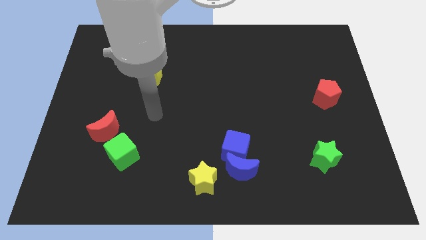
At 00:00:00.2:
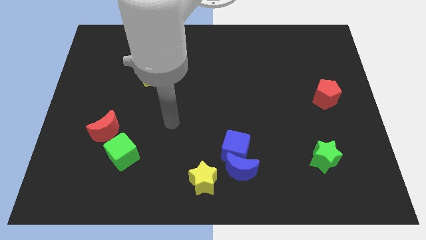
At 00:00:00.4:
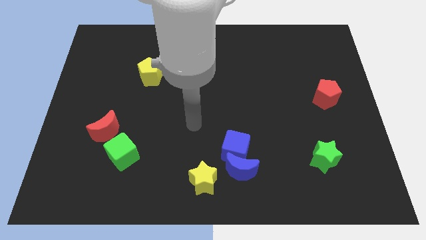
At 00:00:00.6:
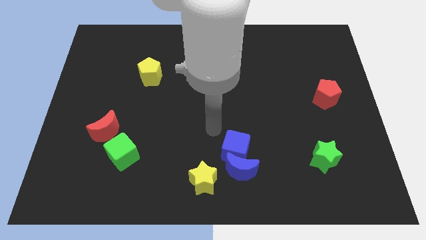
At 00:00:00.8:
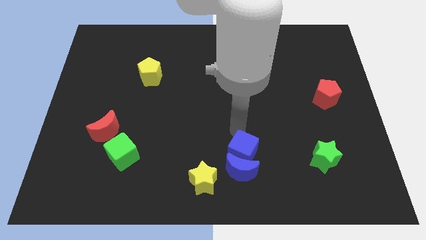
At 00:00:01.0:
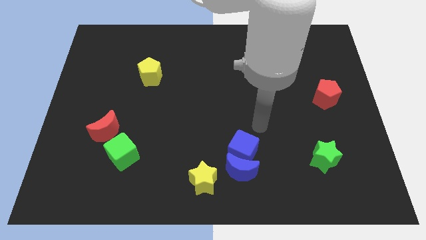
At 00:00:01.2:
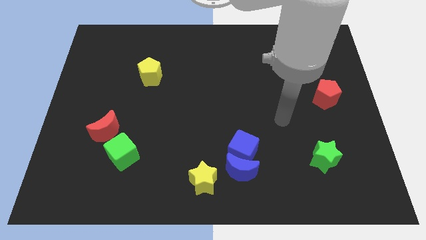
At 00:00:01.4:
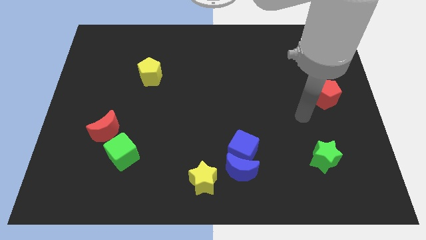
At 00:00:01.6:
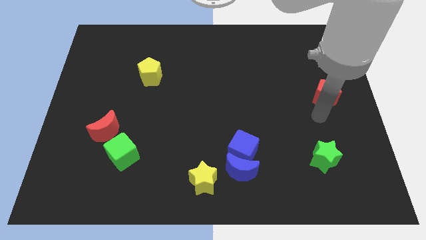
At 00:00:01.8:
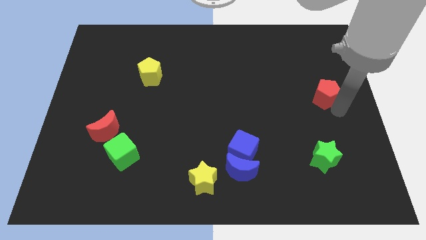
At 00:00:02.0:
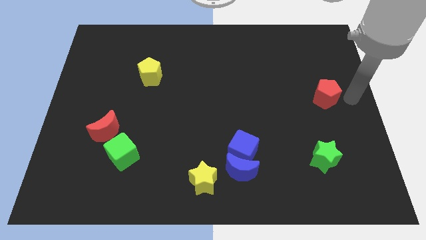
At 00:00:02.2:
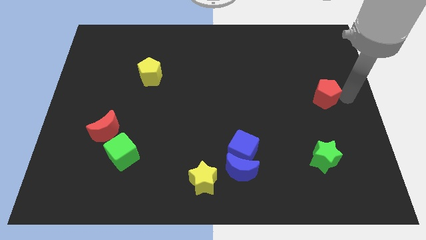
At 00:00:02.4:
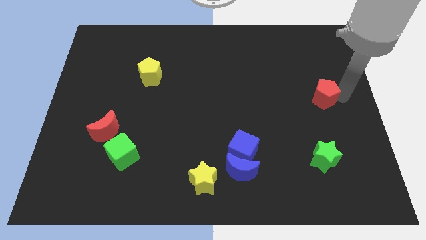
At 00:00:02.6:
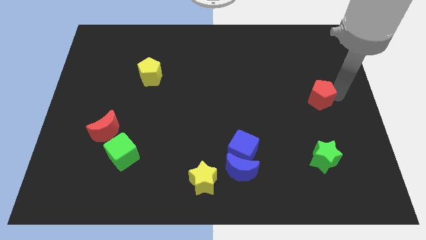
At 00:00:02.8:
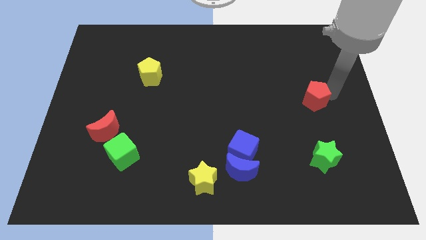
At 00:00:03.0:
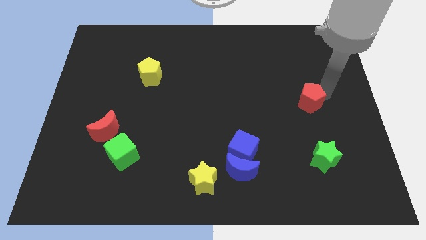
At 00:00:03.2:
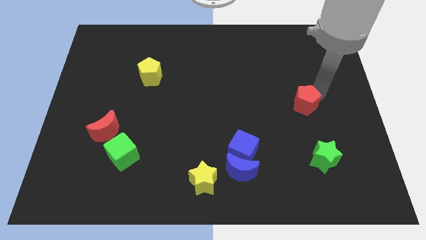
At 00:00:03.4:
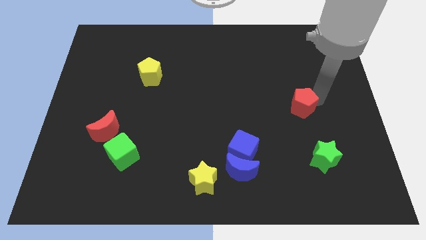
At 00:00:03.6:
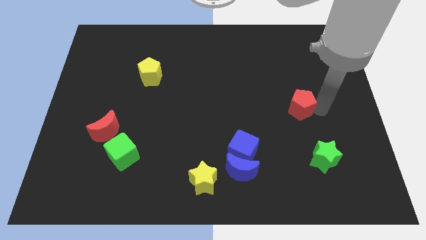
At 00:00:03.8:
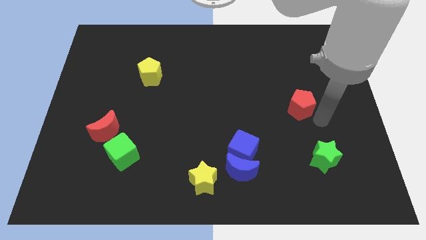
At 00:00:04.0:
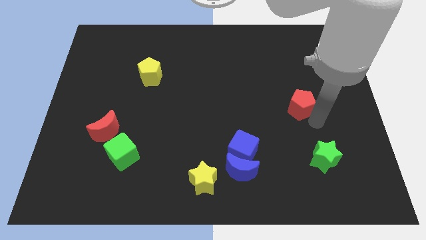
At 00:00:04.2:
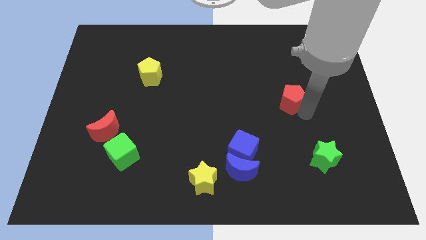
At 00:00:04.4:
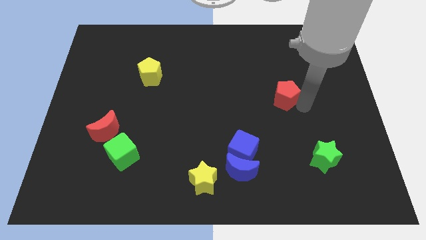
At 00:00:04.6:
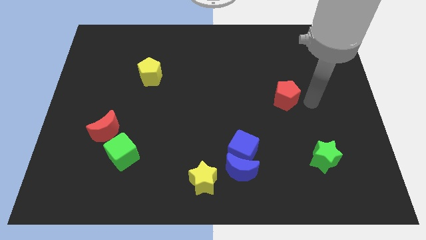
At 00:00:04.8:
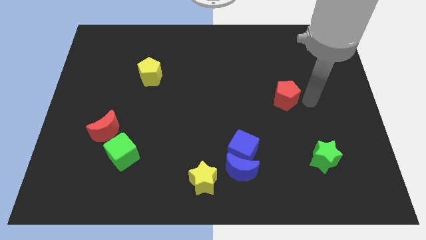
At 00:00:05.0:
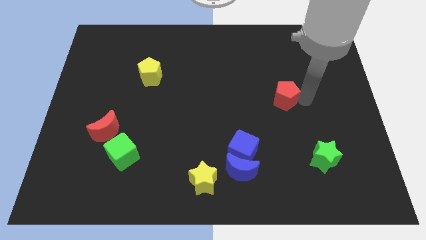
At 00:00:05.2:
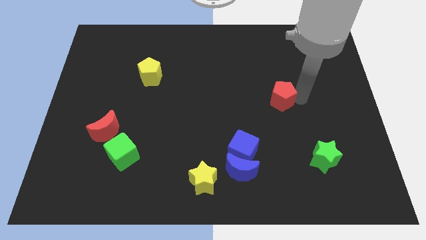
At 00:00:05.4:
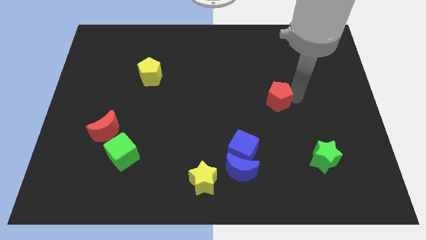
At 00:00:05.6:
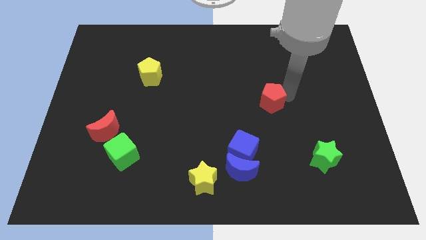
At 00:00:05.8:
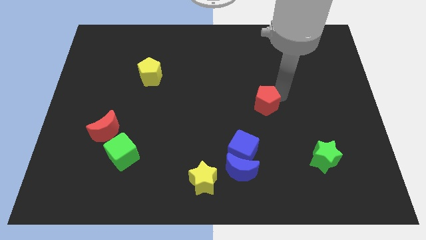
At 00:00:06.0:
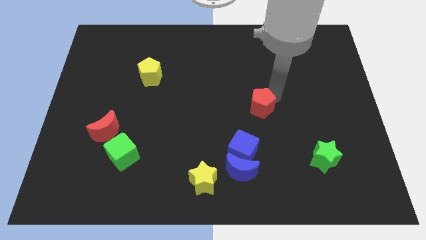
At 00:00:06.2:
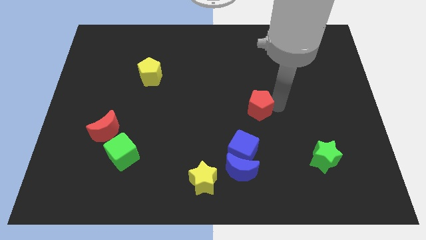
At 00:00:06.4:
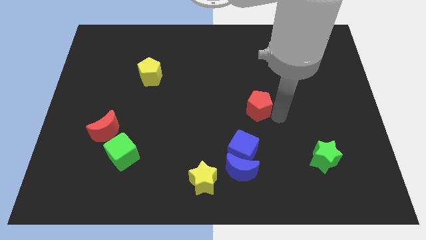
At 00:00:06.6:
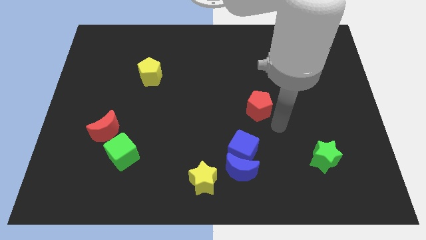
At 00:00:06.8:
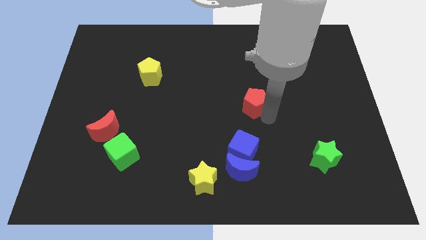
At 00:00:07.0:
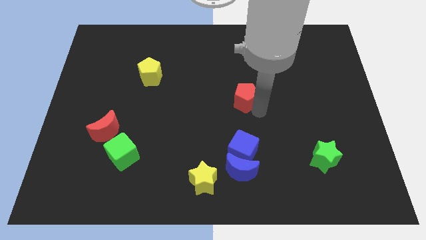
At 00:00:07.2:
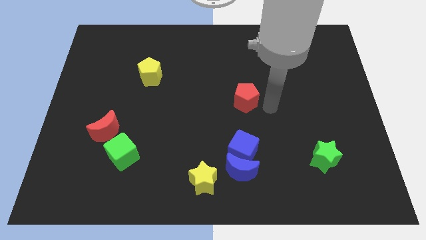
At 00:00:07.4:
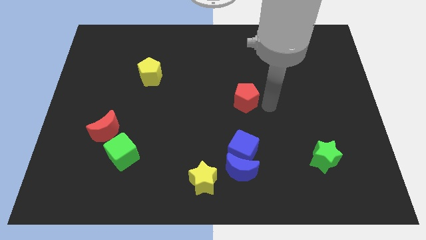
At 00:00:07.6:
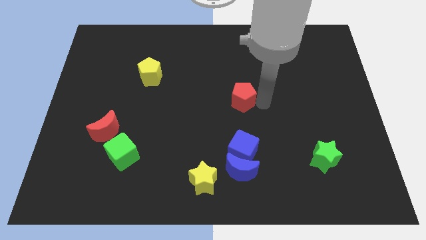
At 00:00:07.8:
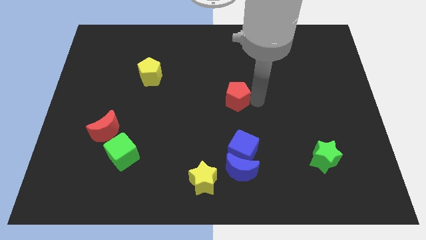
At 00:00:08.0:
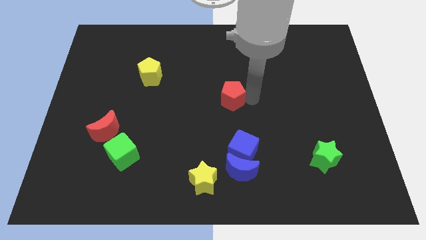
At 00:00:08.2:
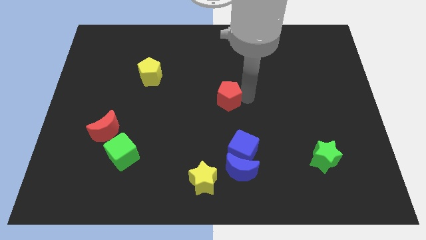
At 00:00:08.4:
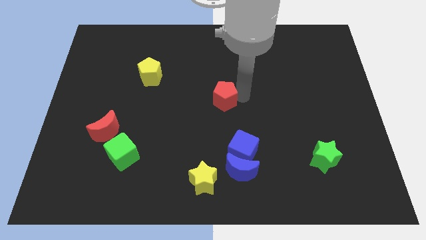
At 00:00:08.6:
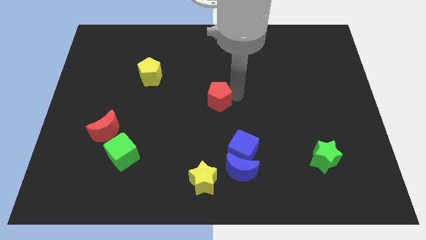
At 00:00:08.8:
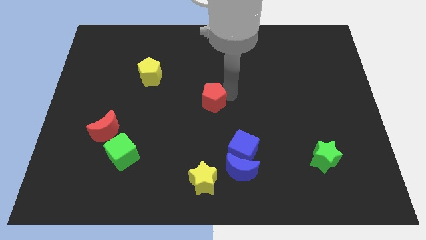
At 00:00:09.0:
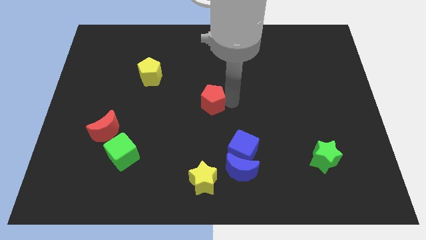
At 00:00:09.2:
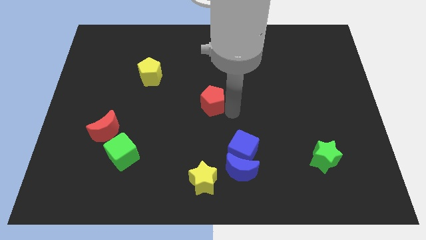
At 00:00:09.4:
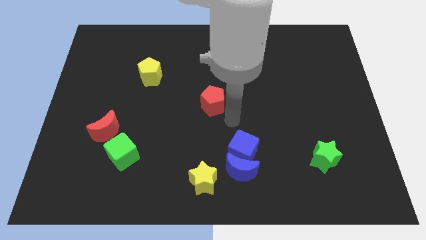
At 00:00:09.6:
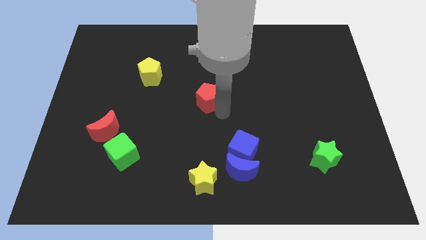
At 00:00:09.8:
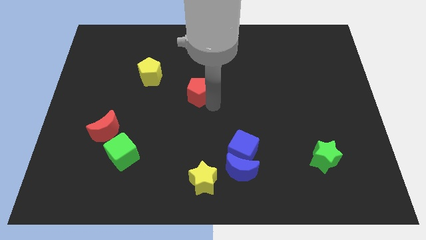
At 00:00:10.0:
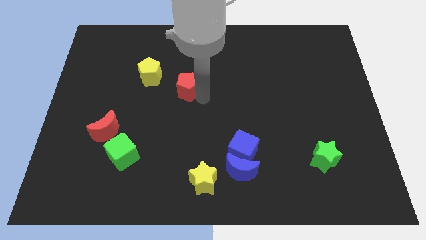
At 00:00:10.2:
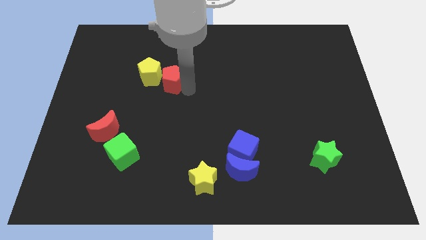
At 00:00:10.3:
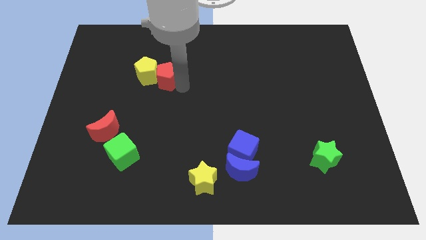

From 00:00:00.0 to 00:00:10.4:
slide the red pentagon to the yellow pentagon

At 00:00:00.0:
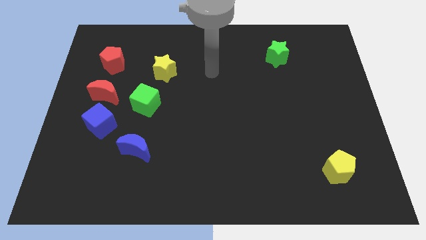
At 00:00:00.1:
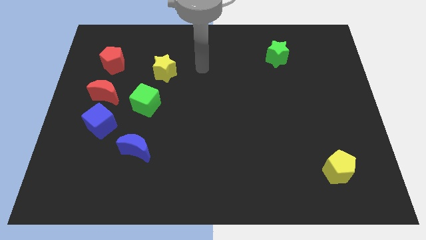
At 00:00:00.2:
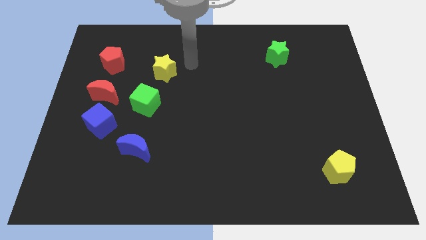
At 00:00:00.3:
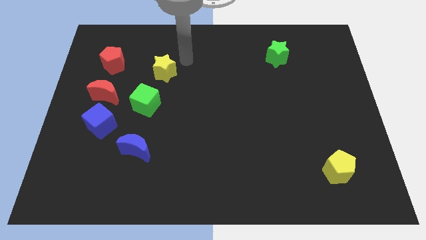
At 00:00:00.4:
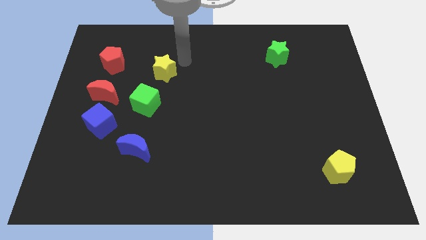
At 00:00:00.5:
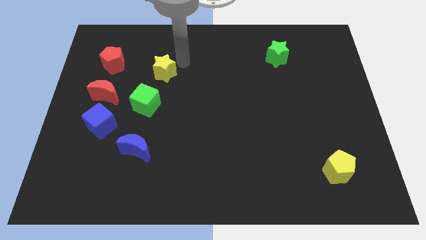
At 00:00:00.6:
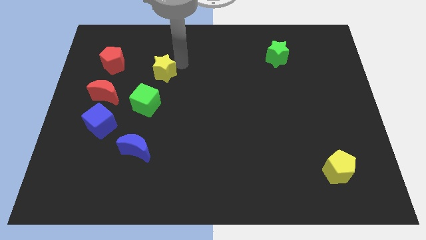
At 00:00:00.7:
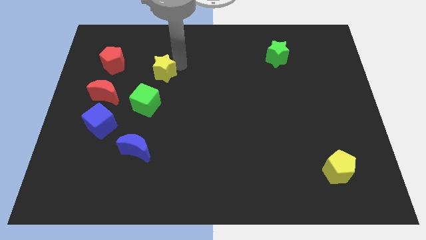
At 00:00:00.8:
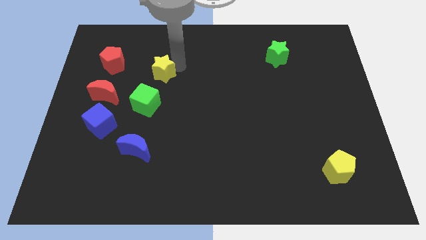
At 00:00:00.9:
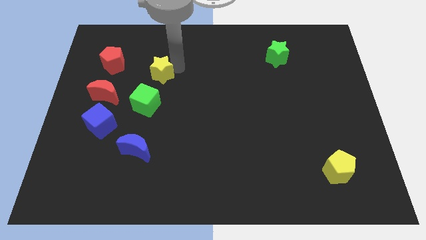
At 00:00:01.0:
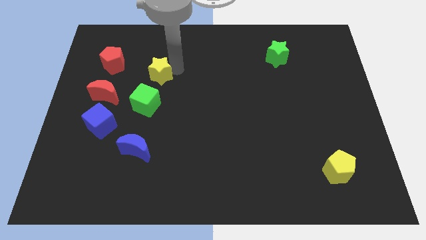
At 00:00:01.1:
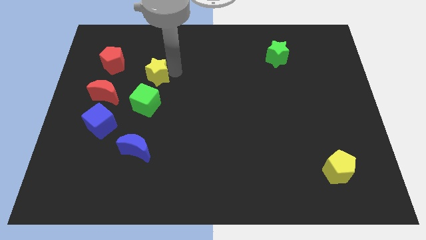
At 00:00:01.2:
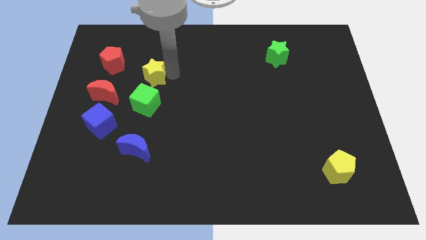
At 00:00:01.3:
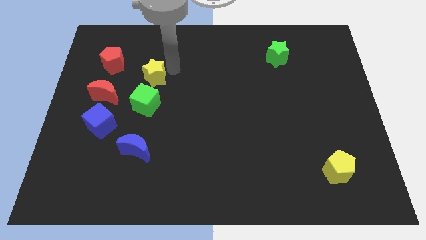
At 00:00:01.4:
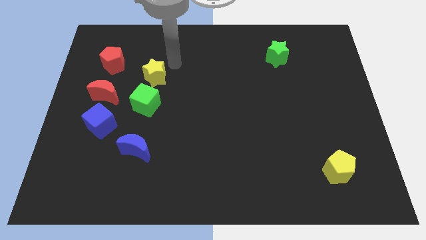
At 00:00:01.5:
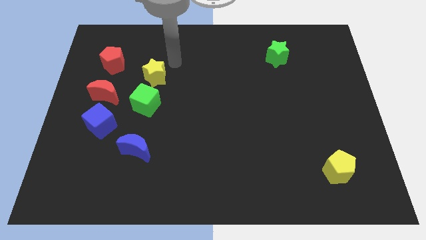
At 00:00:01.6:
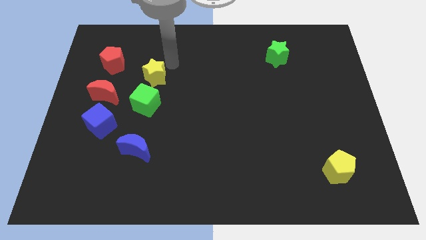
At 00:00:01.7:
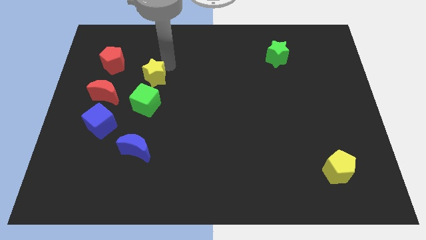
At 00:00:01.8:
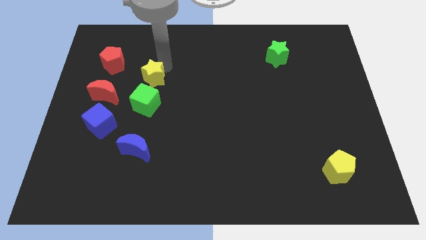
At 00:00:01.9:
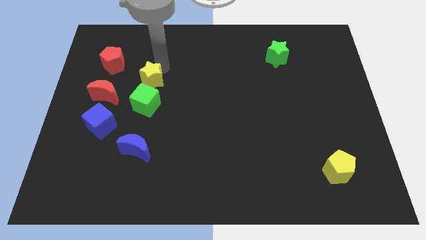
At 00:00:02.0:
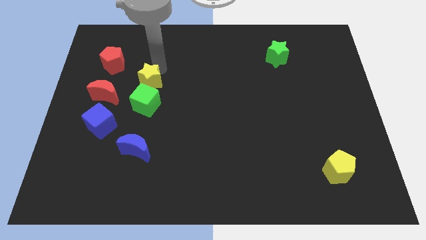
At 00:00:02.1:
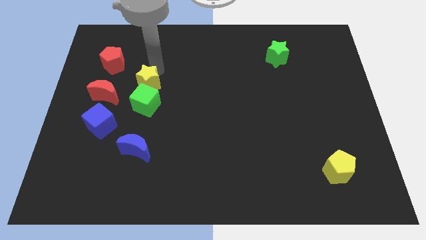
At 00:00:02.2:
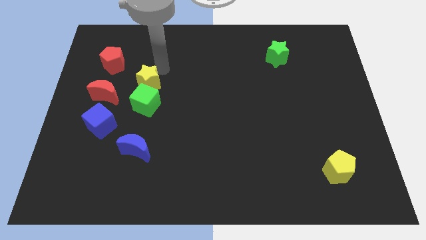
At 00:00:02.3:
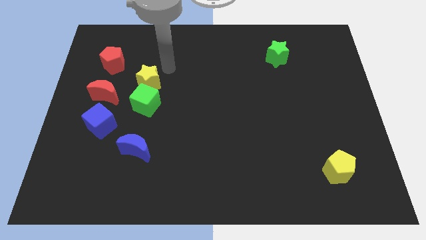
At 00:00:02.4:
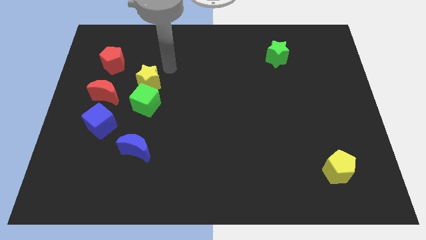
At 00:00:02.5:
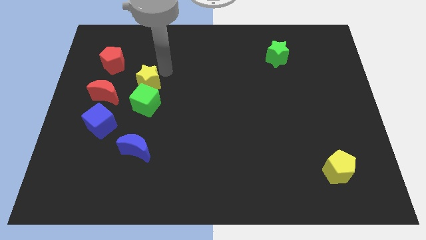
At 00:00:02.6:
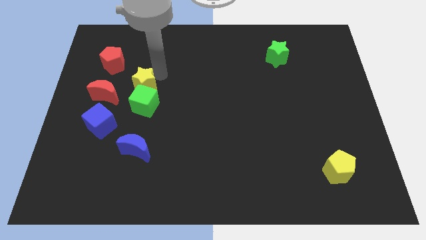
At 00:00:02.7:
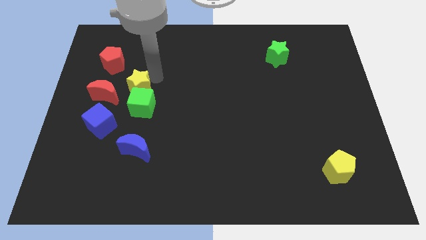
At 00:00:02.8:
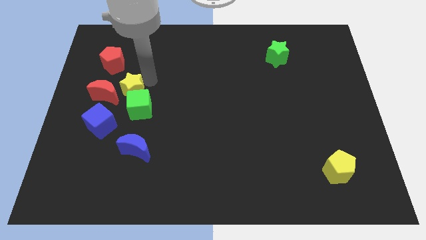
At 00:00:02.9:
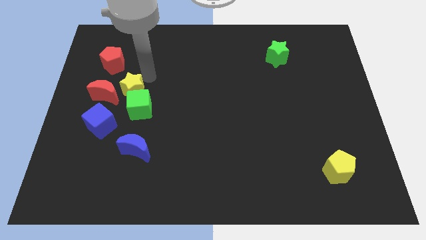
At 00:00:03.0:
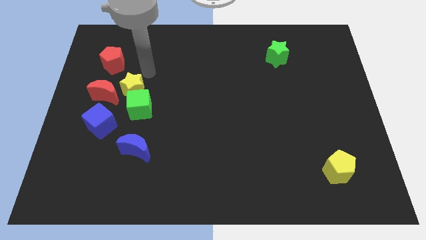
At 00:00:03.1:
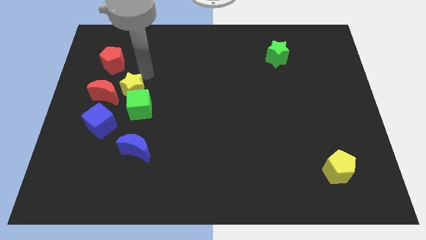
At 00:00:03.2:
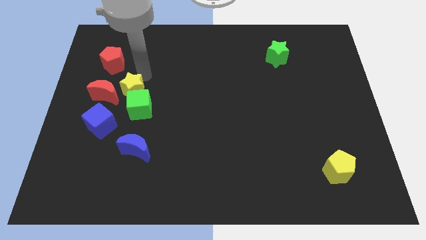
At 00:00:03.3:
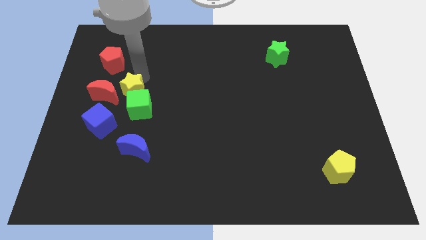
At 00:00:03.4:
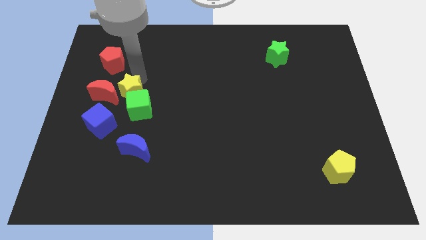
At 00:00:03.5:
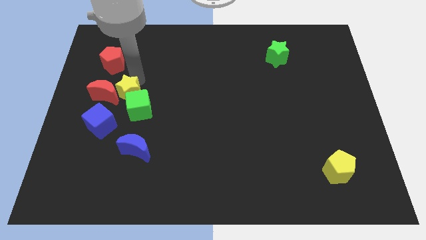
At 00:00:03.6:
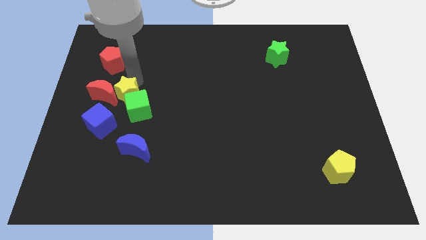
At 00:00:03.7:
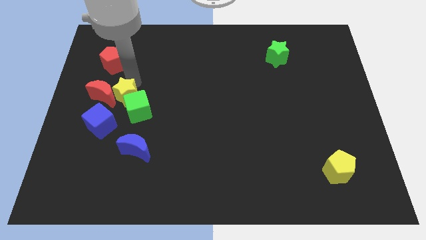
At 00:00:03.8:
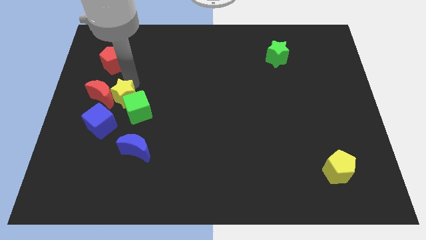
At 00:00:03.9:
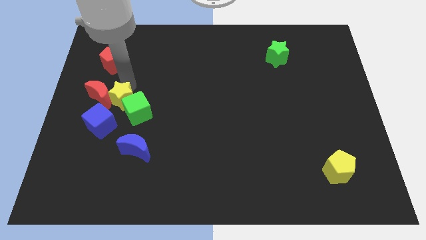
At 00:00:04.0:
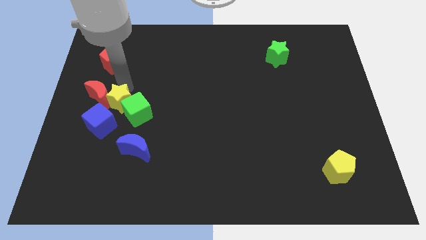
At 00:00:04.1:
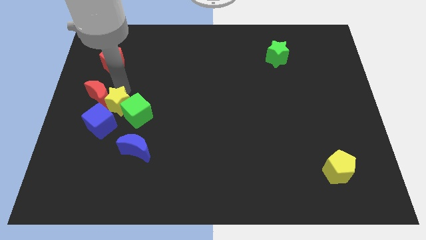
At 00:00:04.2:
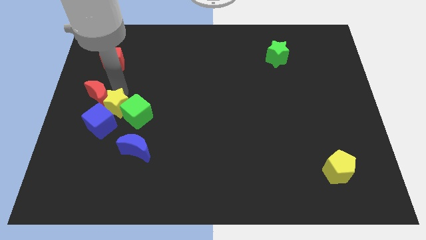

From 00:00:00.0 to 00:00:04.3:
move the yellow star to the blue cube
